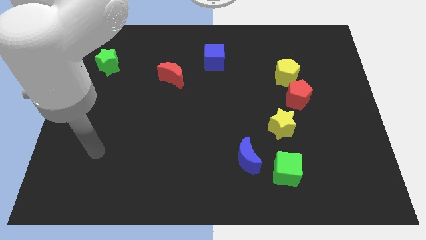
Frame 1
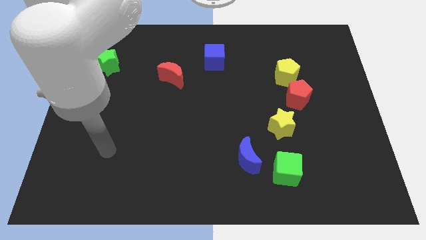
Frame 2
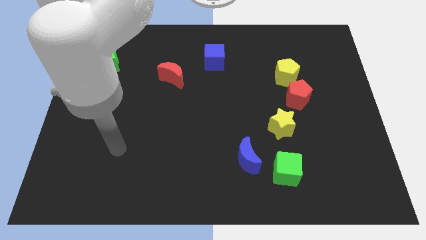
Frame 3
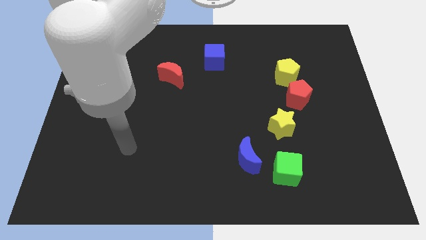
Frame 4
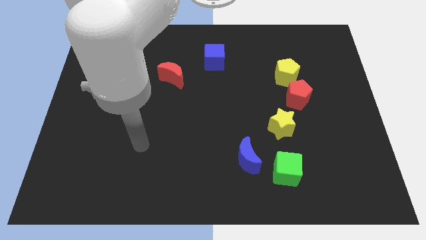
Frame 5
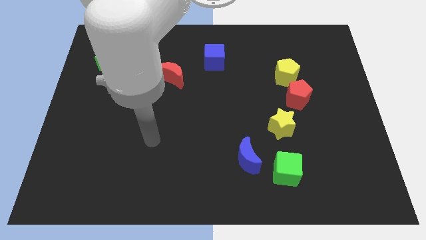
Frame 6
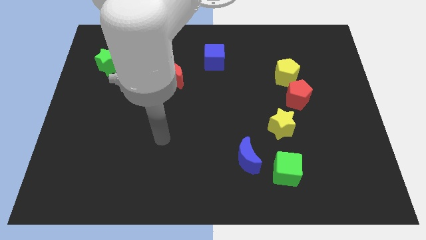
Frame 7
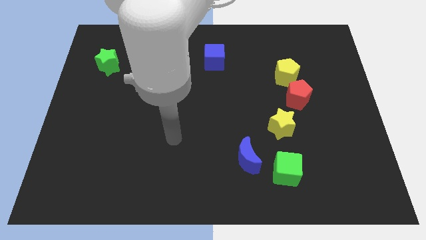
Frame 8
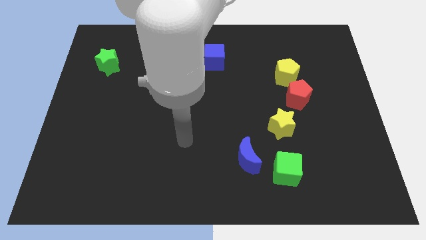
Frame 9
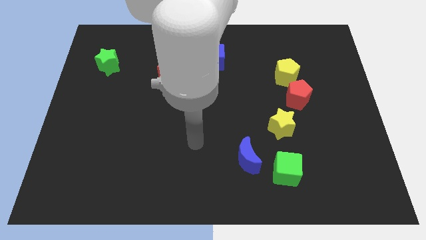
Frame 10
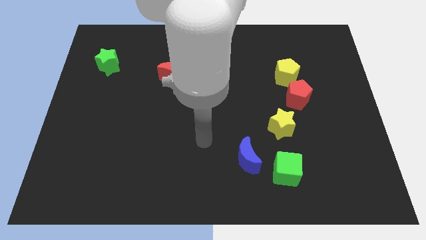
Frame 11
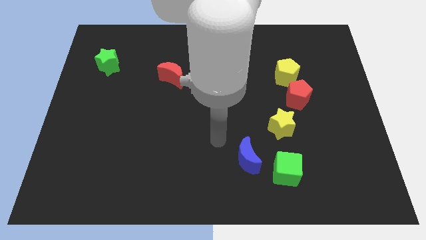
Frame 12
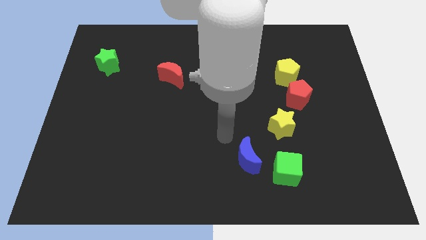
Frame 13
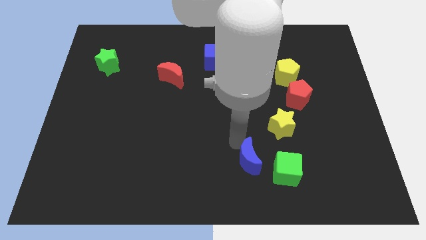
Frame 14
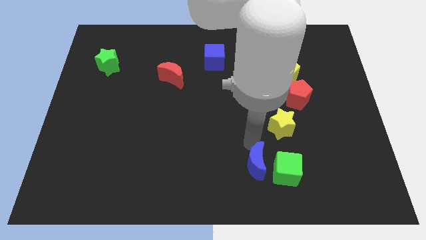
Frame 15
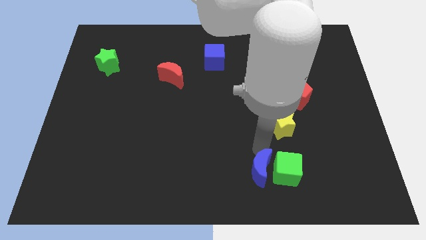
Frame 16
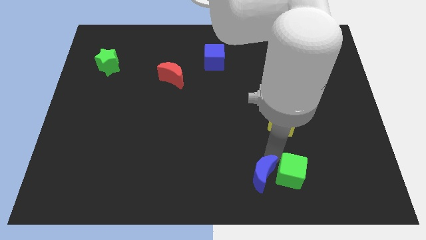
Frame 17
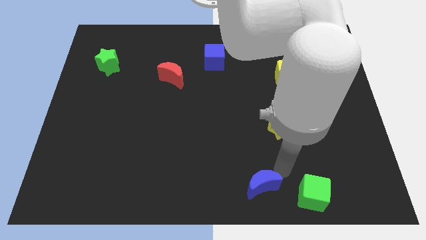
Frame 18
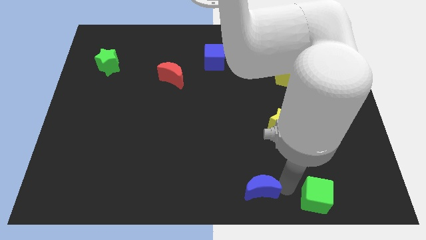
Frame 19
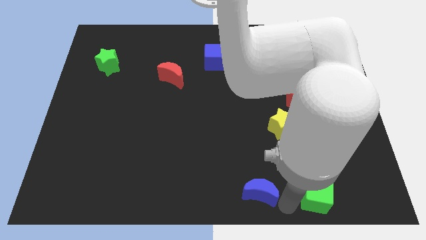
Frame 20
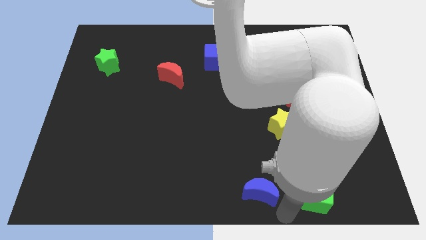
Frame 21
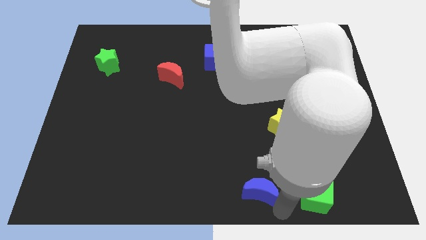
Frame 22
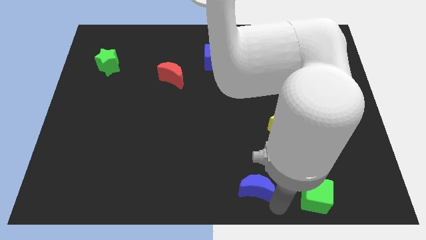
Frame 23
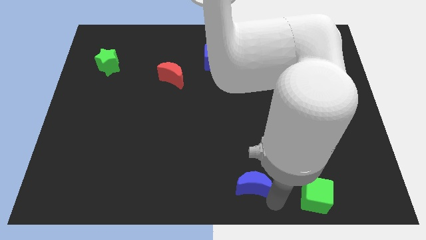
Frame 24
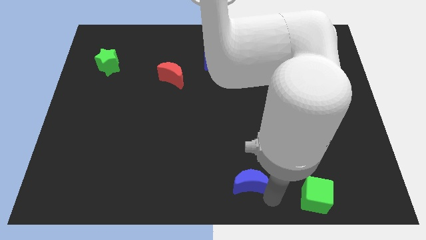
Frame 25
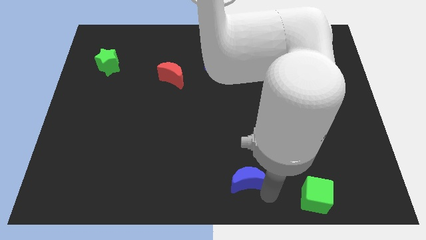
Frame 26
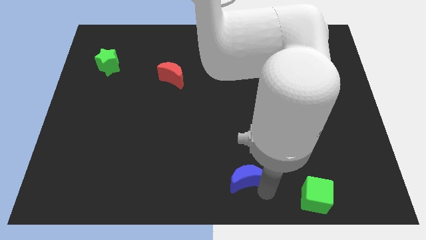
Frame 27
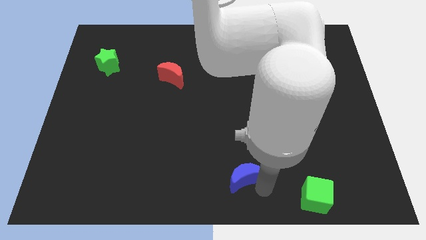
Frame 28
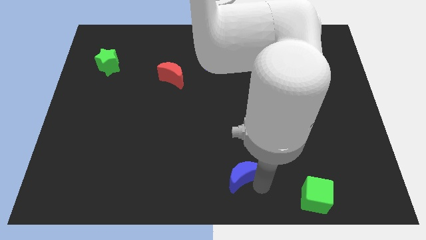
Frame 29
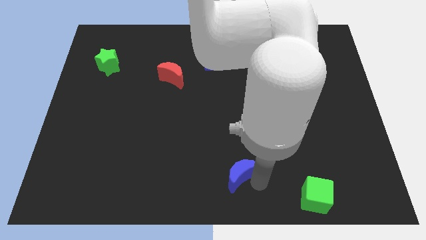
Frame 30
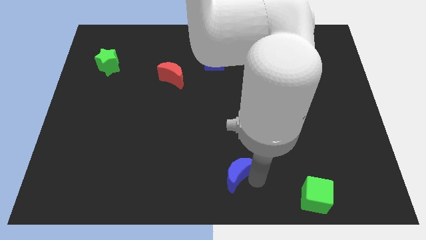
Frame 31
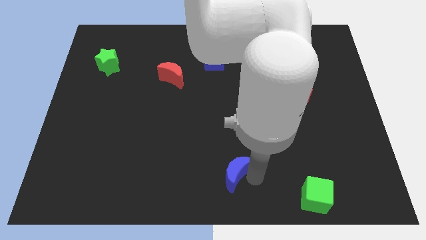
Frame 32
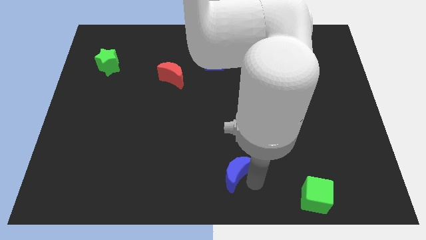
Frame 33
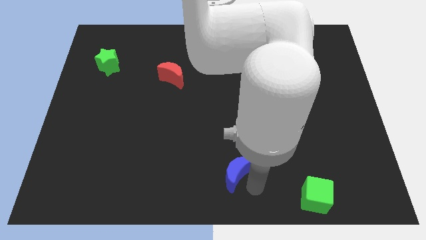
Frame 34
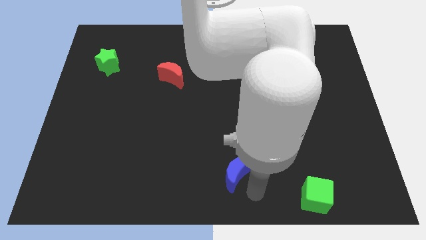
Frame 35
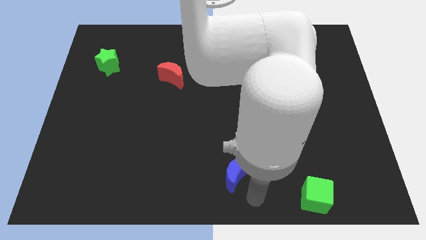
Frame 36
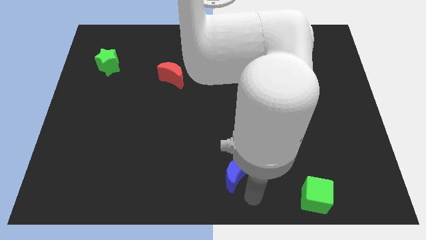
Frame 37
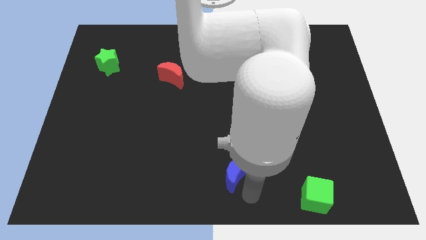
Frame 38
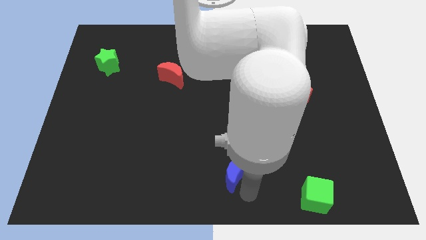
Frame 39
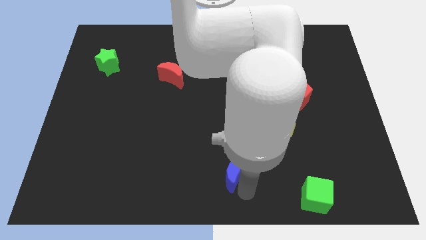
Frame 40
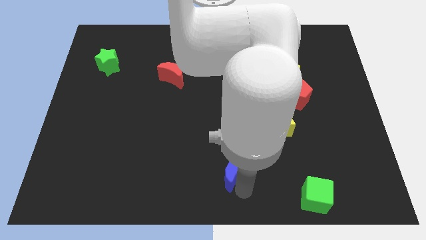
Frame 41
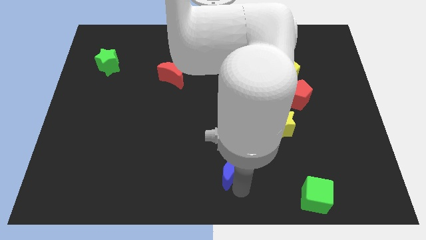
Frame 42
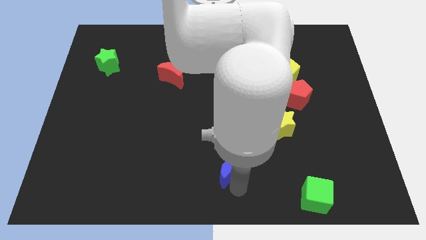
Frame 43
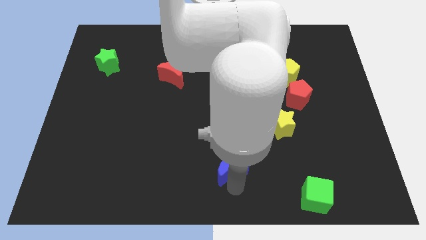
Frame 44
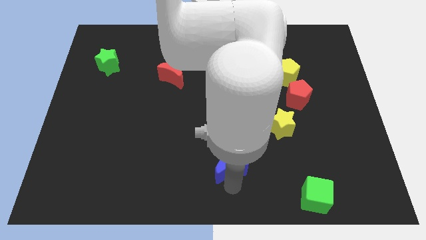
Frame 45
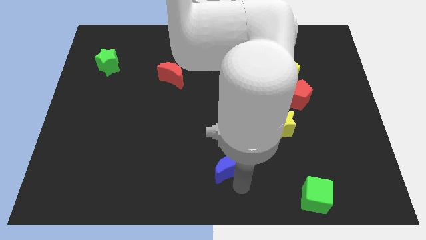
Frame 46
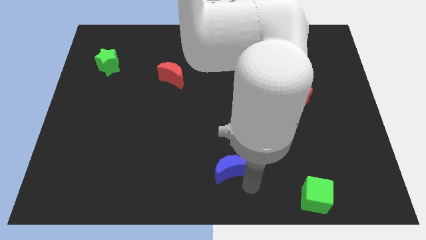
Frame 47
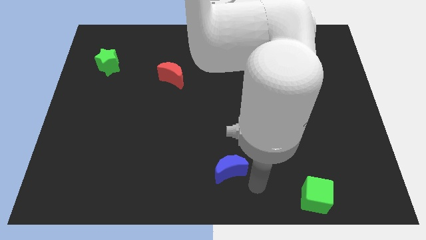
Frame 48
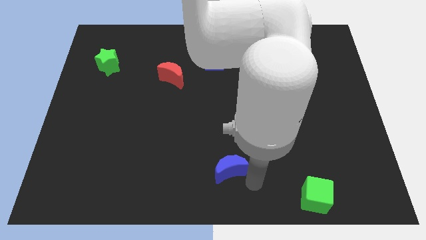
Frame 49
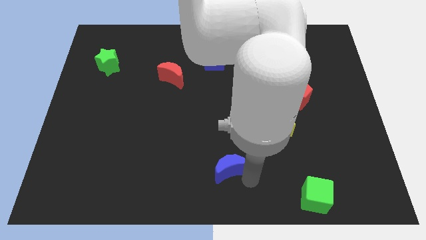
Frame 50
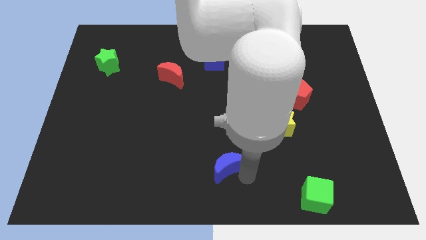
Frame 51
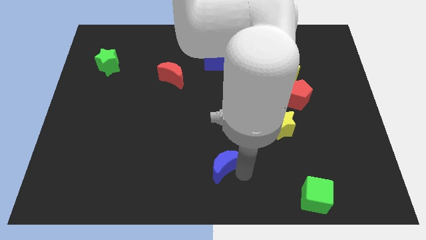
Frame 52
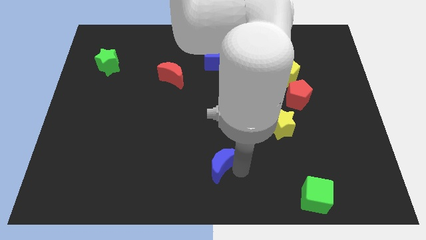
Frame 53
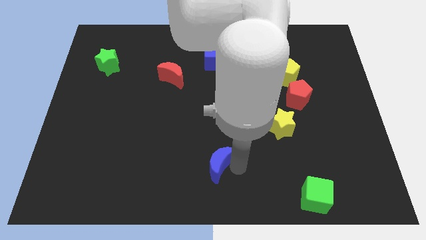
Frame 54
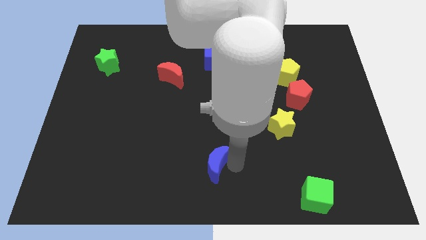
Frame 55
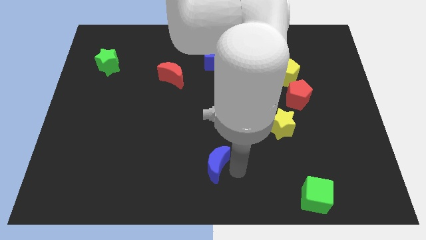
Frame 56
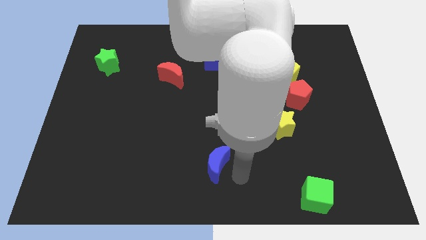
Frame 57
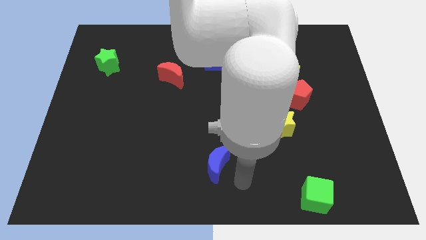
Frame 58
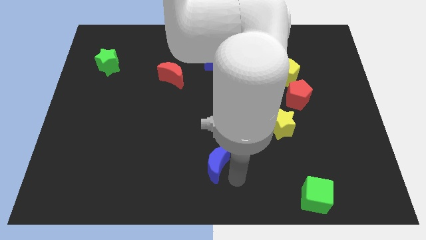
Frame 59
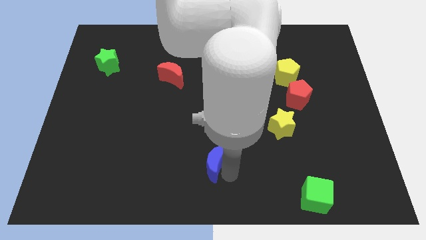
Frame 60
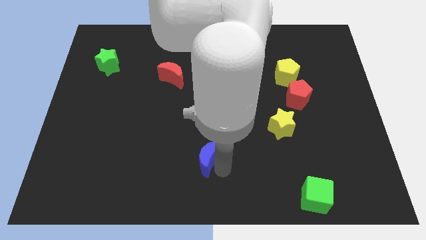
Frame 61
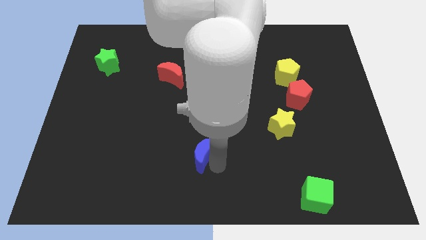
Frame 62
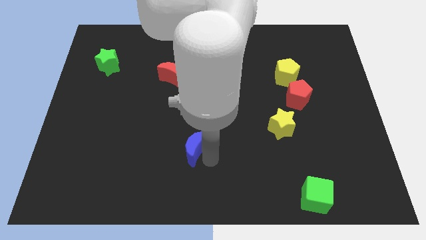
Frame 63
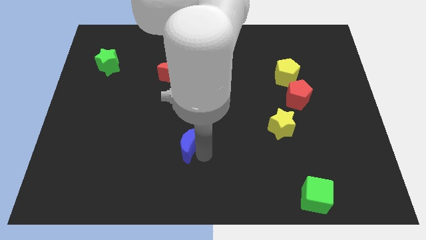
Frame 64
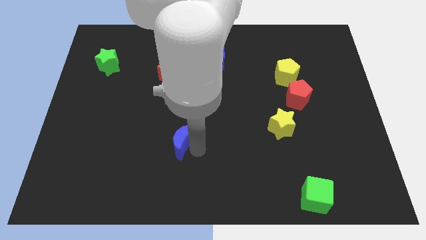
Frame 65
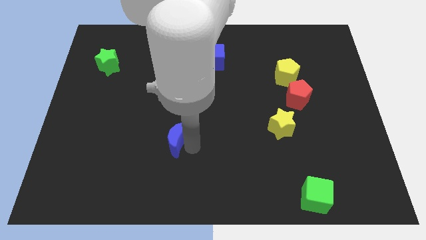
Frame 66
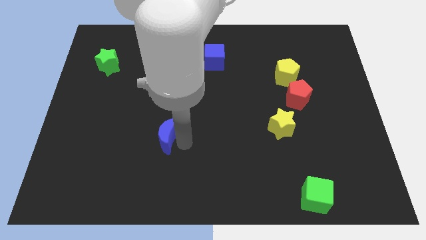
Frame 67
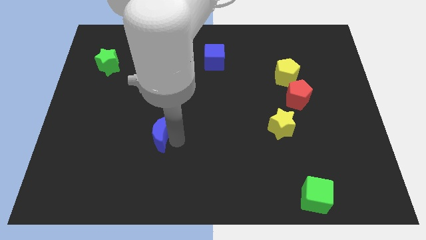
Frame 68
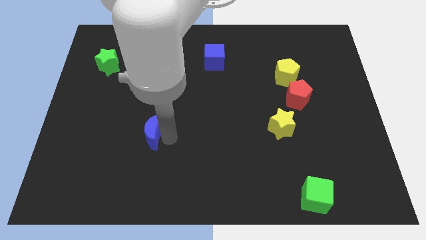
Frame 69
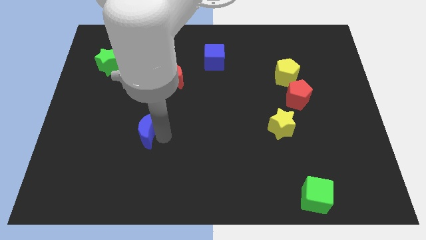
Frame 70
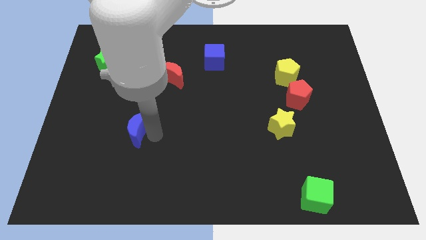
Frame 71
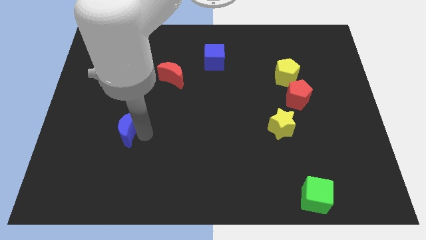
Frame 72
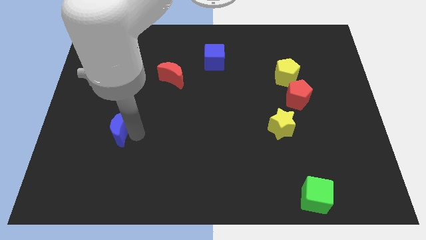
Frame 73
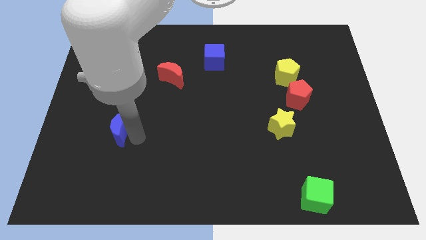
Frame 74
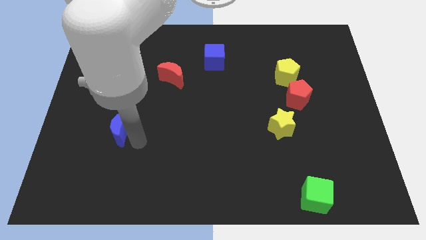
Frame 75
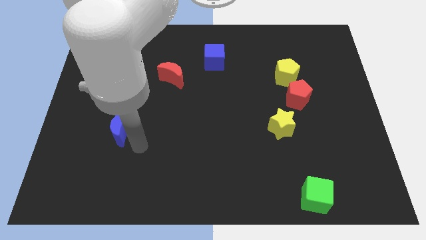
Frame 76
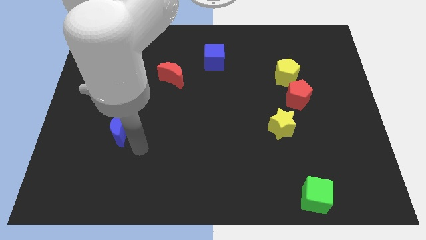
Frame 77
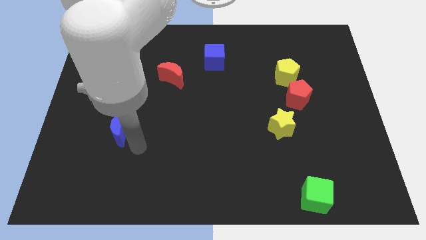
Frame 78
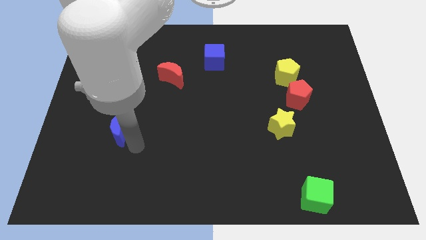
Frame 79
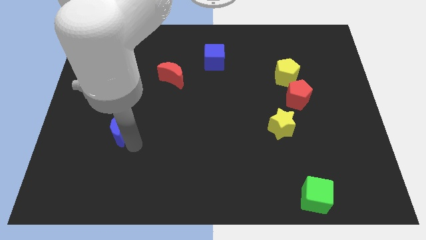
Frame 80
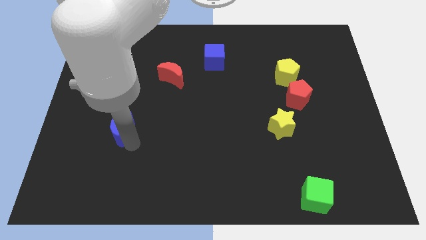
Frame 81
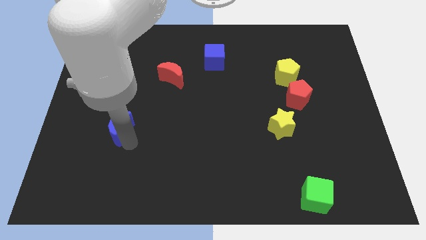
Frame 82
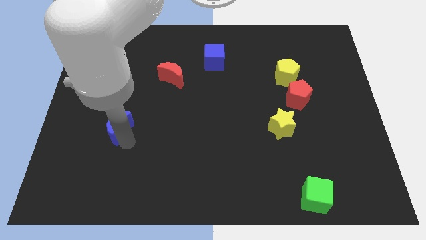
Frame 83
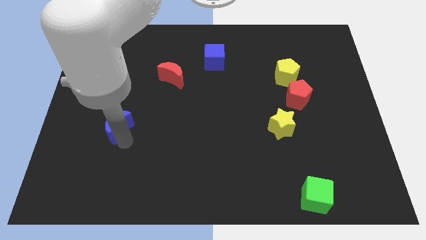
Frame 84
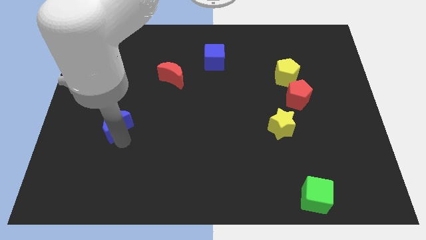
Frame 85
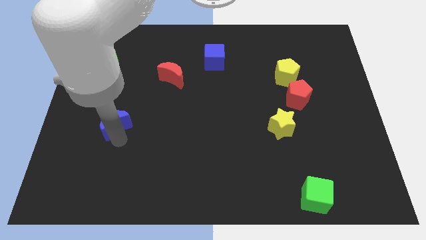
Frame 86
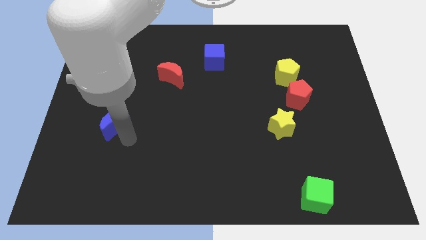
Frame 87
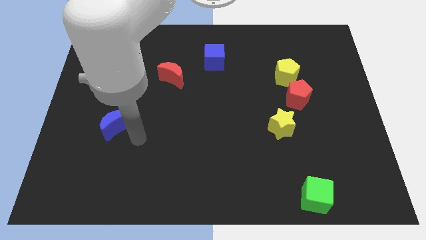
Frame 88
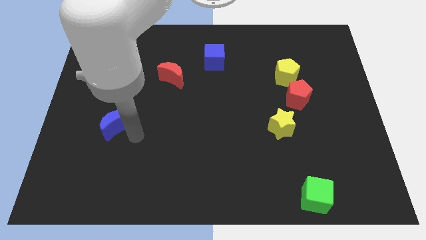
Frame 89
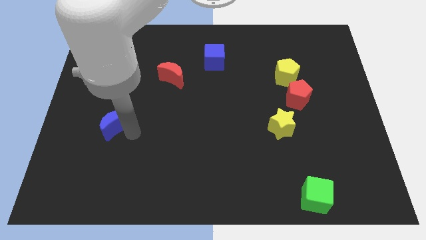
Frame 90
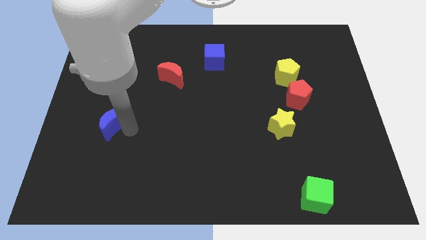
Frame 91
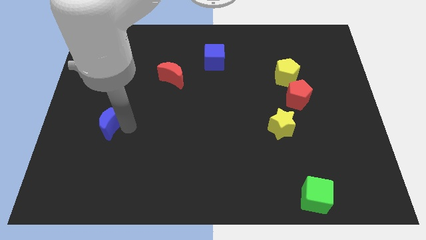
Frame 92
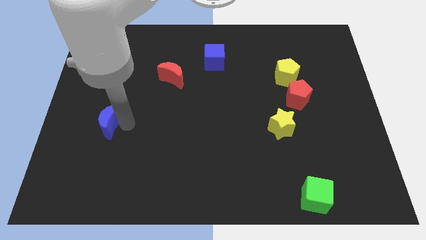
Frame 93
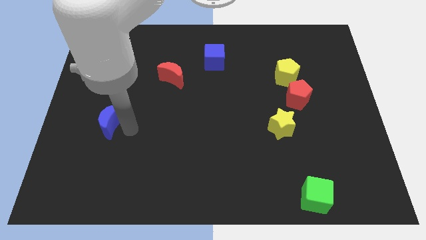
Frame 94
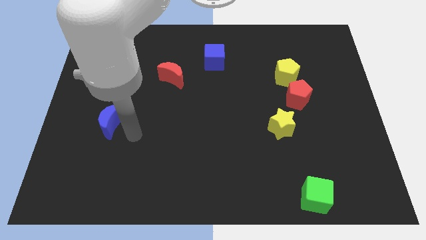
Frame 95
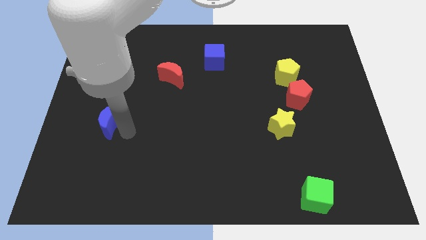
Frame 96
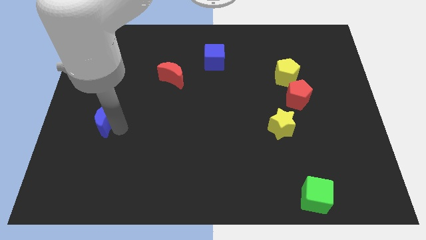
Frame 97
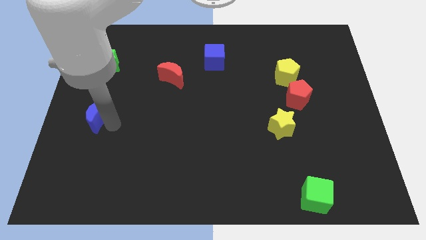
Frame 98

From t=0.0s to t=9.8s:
slide the blue moon to the center left
